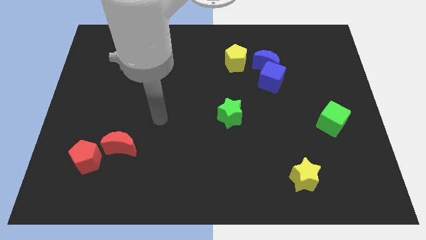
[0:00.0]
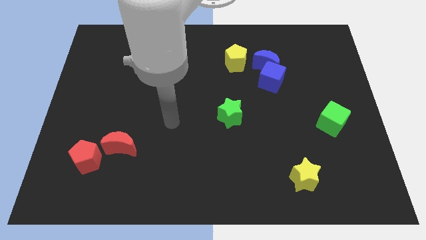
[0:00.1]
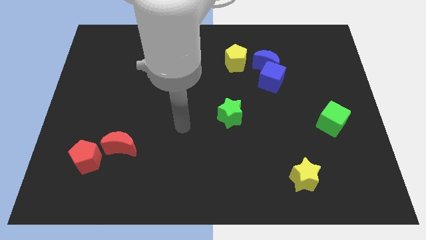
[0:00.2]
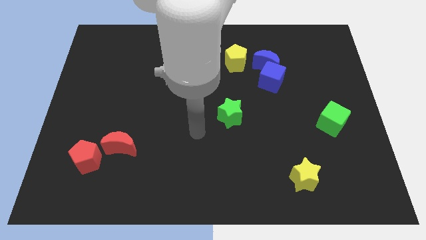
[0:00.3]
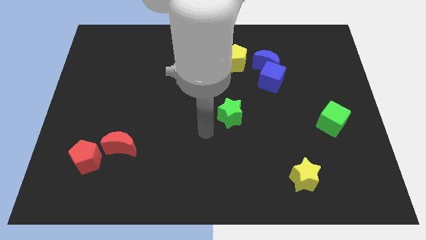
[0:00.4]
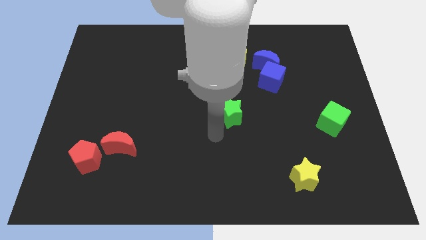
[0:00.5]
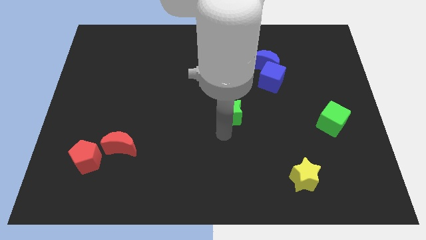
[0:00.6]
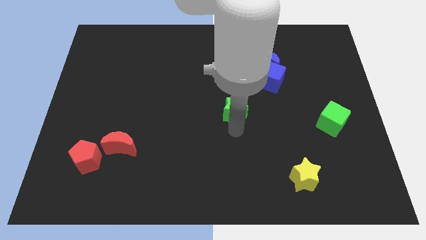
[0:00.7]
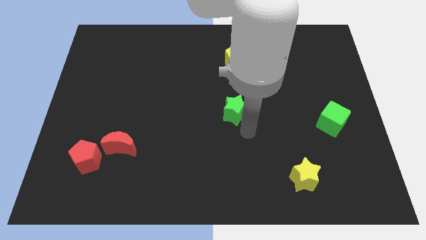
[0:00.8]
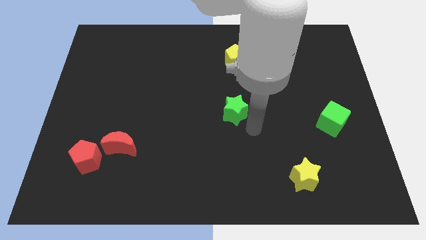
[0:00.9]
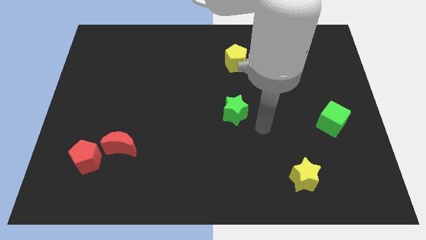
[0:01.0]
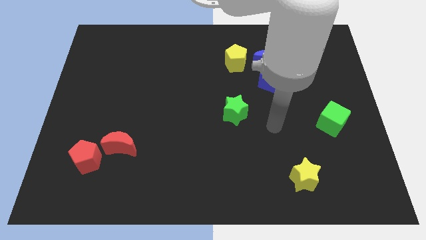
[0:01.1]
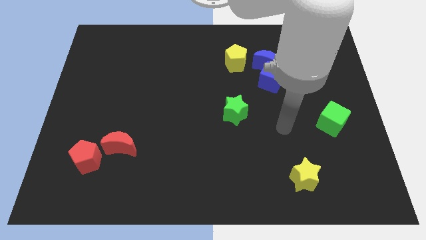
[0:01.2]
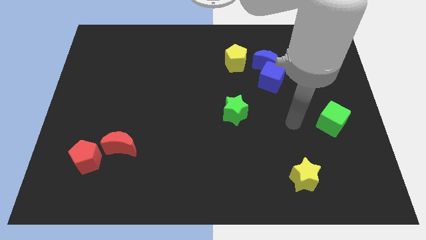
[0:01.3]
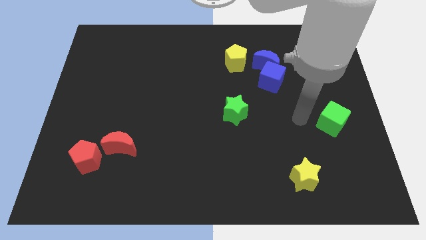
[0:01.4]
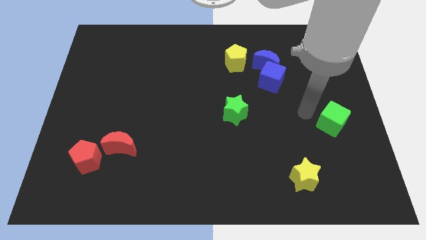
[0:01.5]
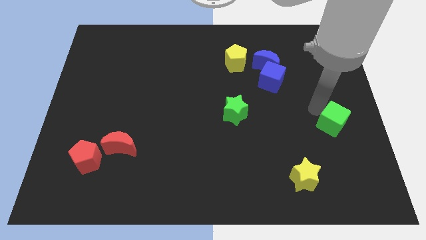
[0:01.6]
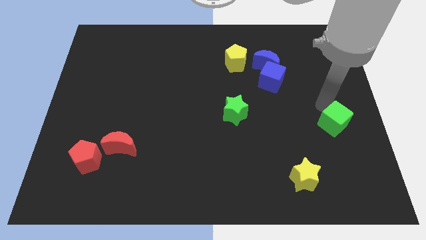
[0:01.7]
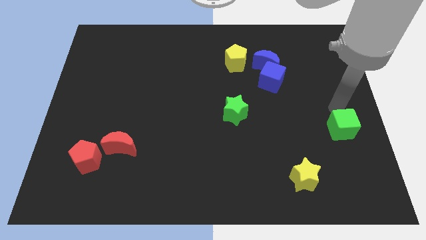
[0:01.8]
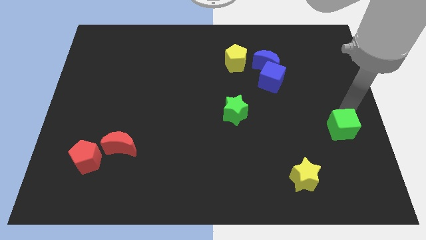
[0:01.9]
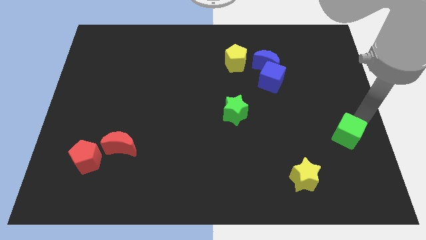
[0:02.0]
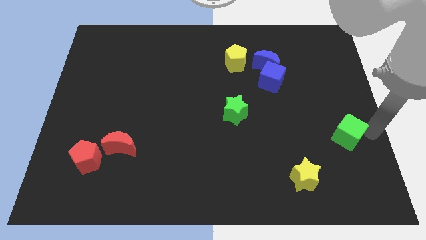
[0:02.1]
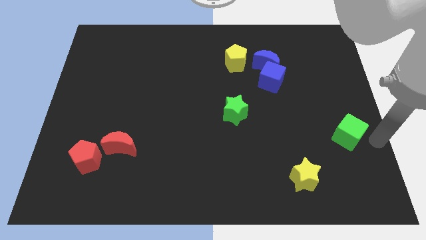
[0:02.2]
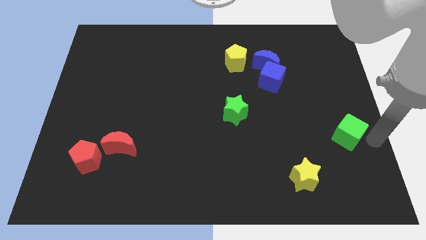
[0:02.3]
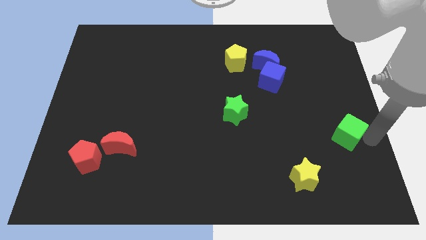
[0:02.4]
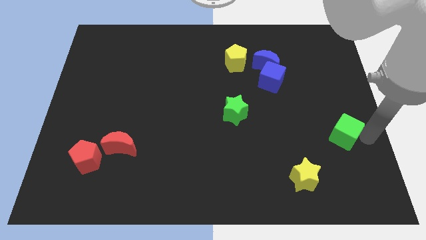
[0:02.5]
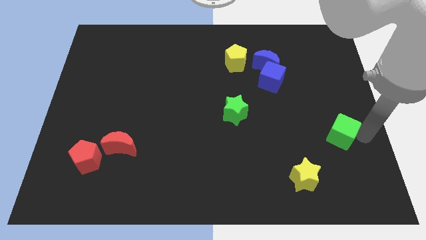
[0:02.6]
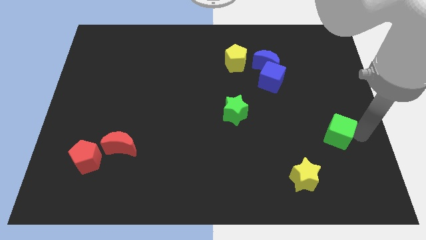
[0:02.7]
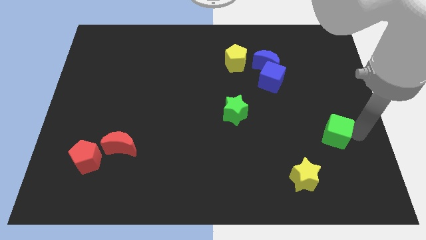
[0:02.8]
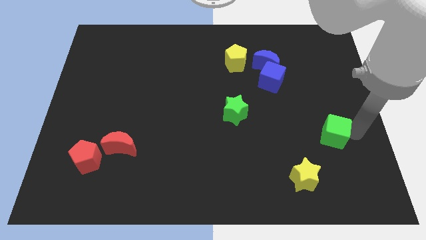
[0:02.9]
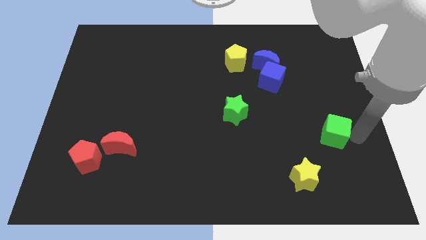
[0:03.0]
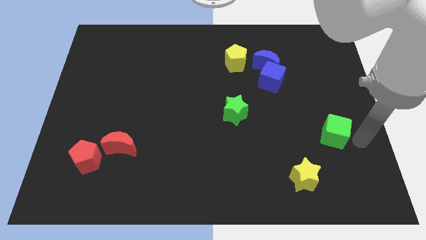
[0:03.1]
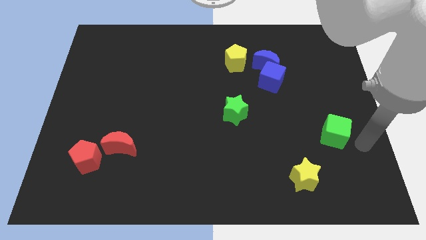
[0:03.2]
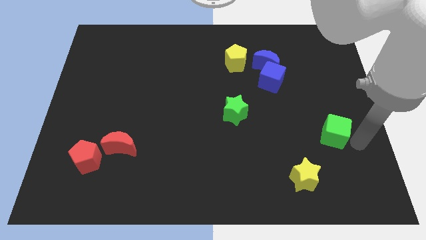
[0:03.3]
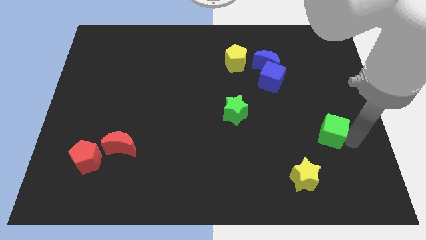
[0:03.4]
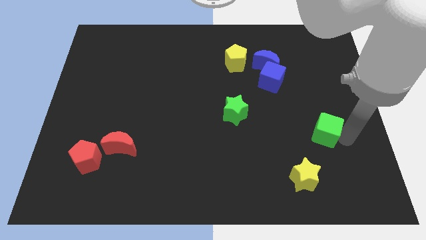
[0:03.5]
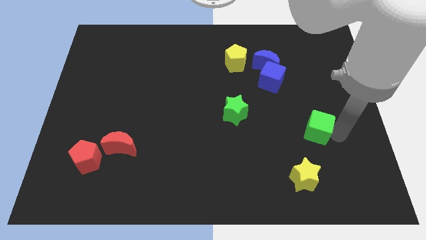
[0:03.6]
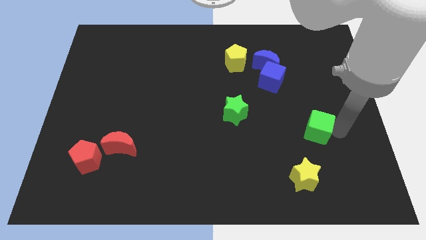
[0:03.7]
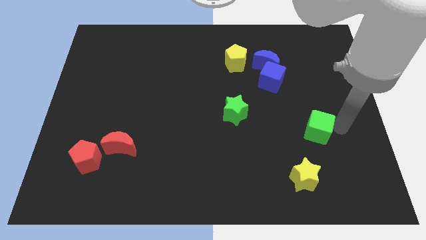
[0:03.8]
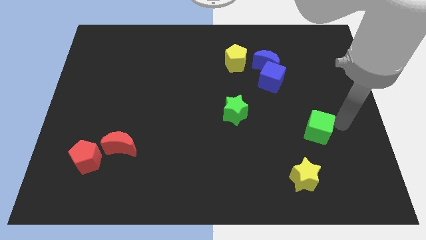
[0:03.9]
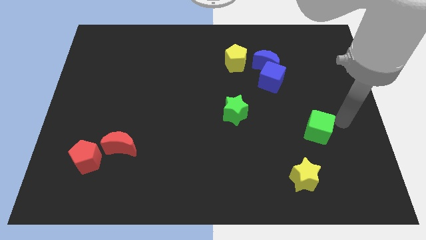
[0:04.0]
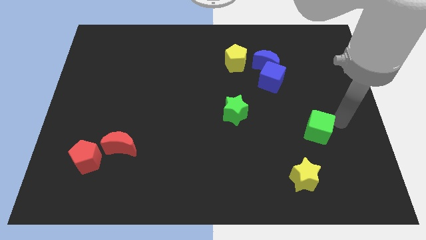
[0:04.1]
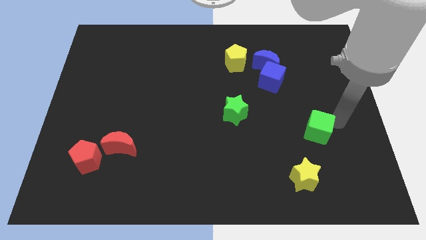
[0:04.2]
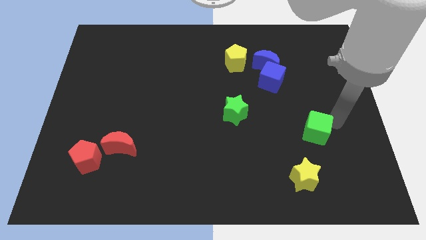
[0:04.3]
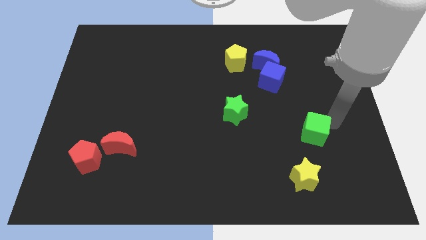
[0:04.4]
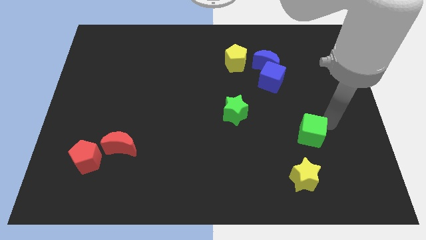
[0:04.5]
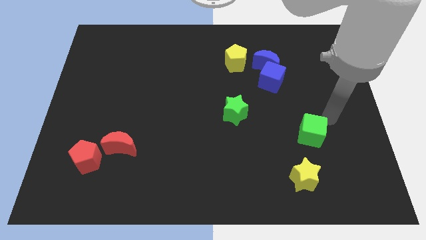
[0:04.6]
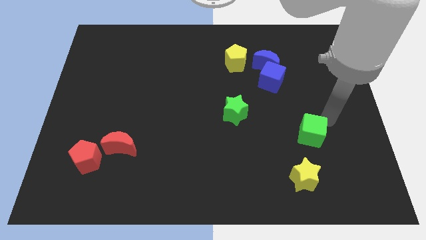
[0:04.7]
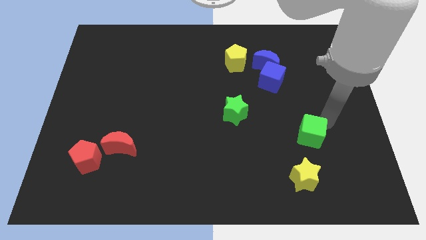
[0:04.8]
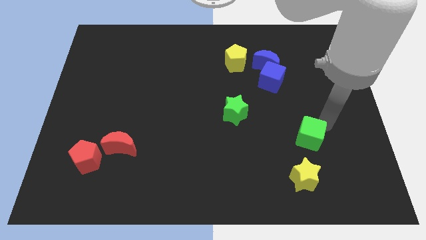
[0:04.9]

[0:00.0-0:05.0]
slightly push the green cube down and to the left

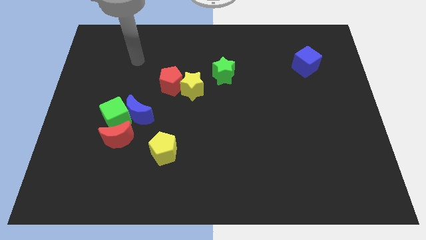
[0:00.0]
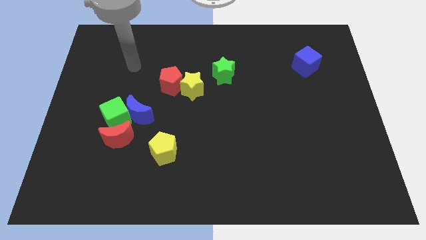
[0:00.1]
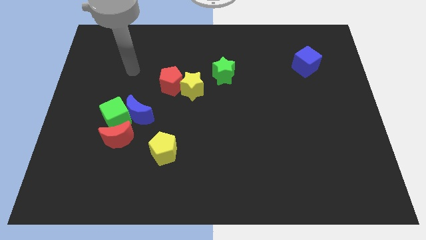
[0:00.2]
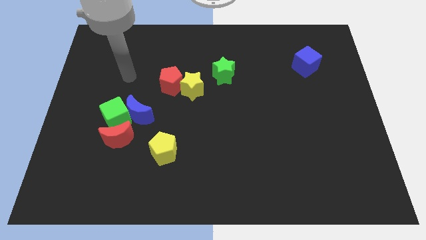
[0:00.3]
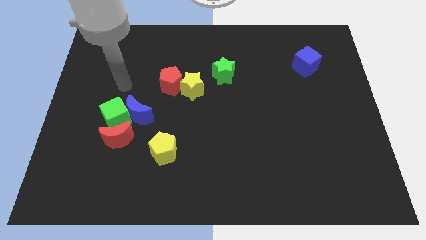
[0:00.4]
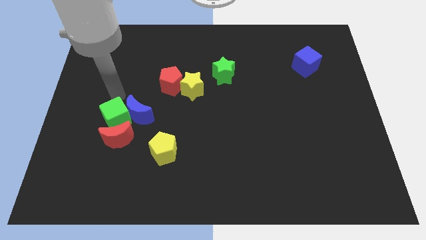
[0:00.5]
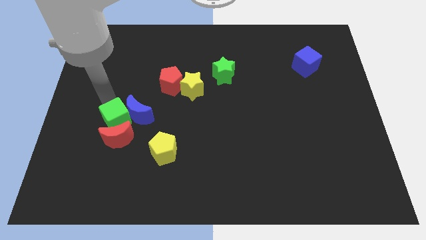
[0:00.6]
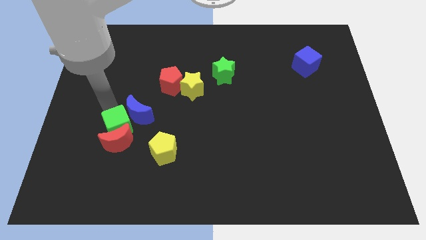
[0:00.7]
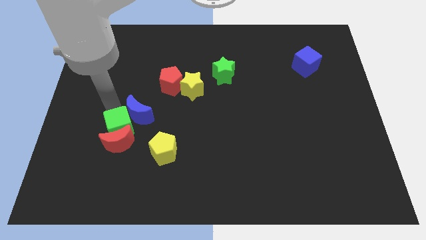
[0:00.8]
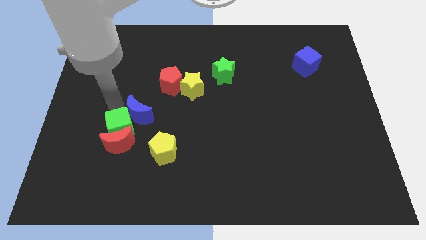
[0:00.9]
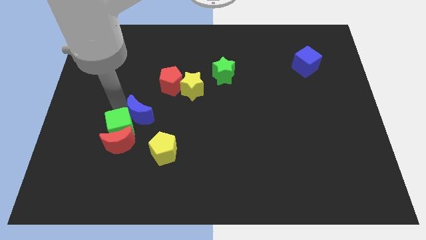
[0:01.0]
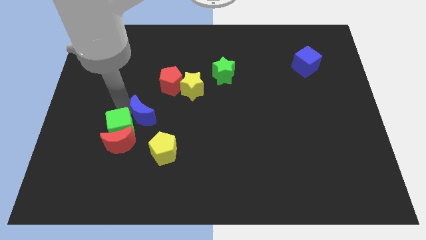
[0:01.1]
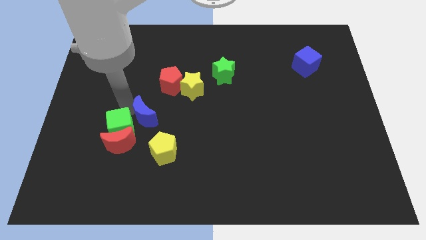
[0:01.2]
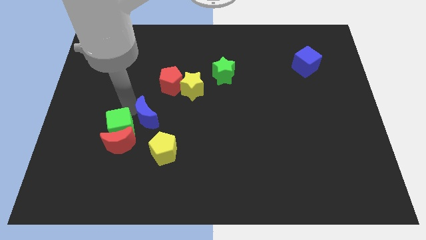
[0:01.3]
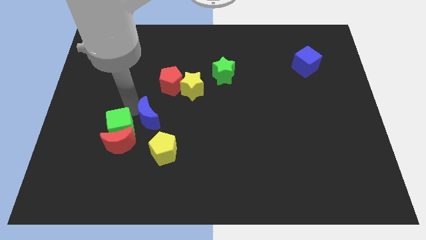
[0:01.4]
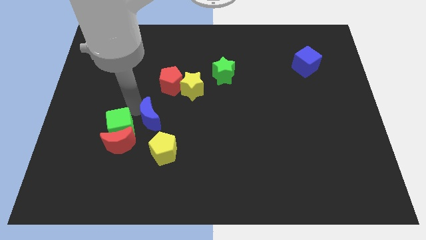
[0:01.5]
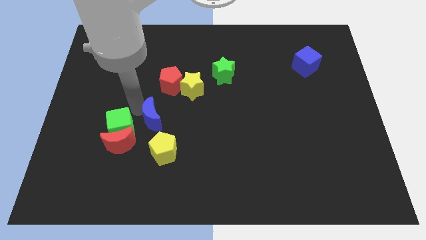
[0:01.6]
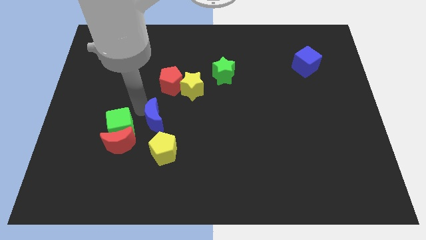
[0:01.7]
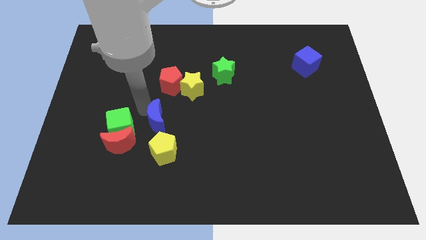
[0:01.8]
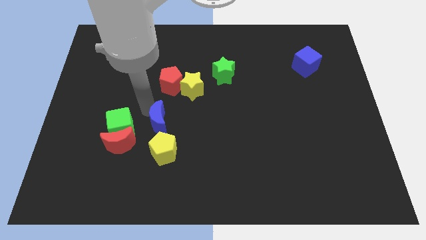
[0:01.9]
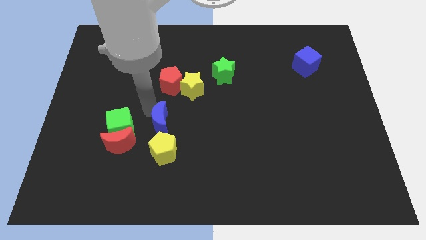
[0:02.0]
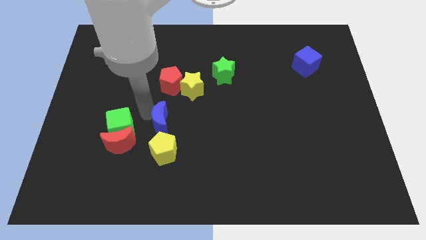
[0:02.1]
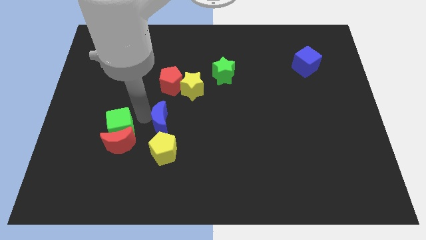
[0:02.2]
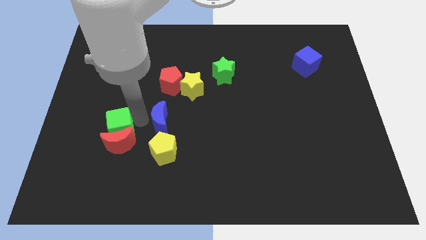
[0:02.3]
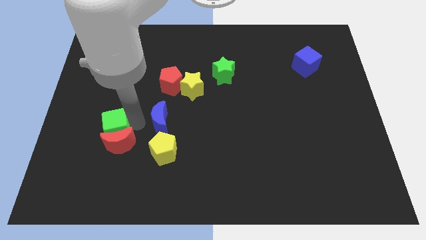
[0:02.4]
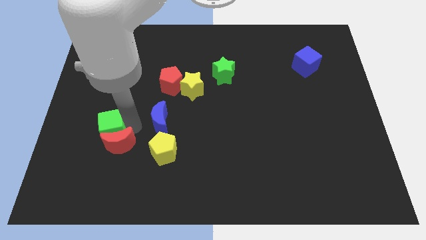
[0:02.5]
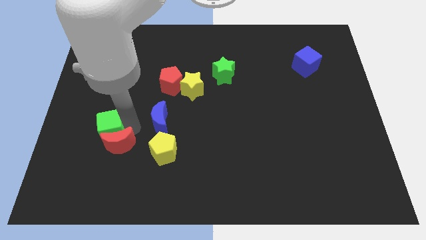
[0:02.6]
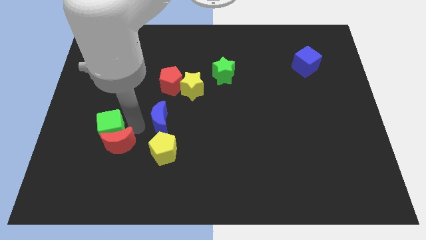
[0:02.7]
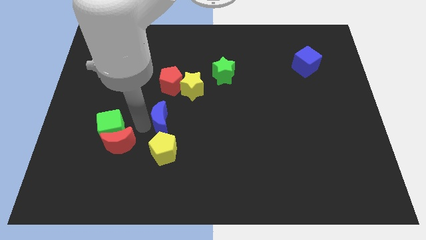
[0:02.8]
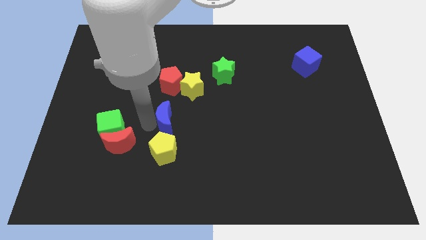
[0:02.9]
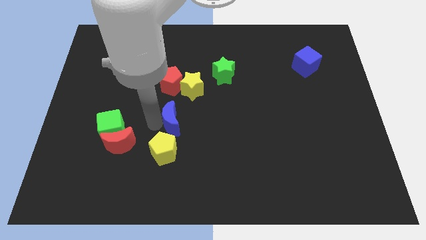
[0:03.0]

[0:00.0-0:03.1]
push the blue moon to the right a little
